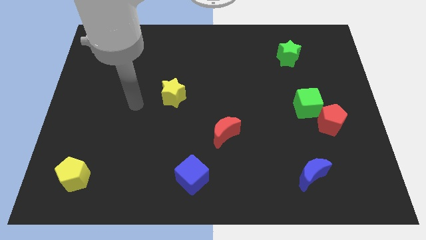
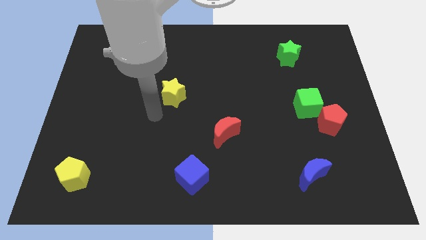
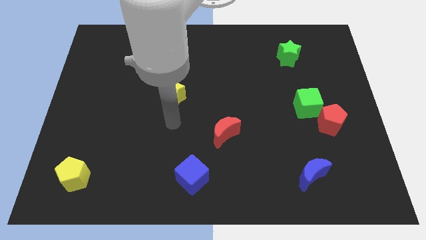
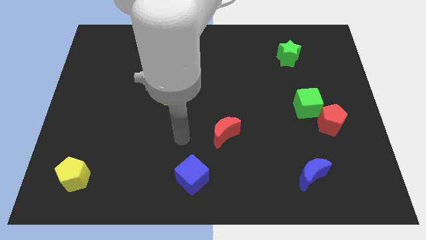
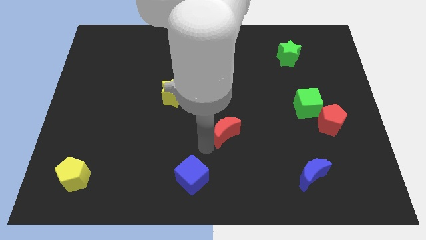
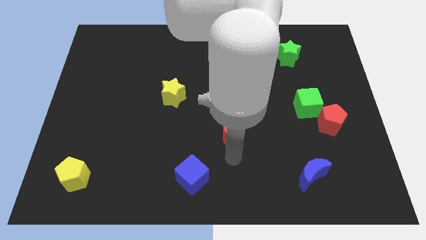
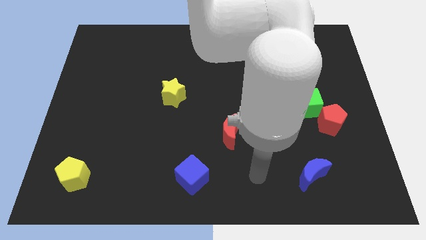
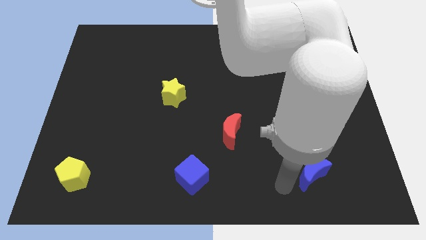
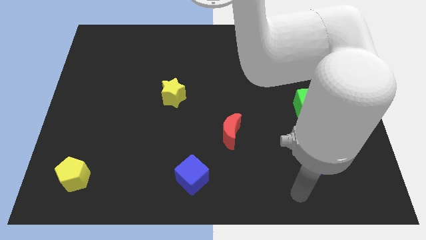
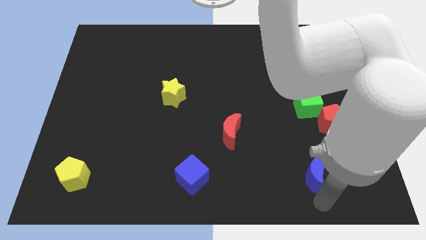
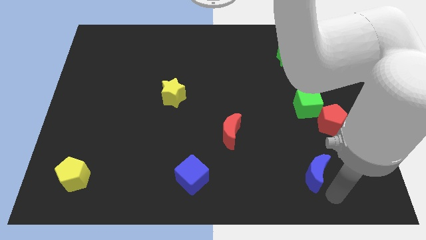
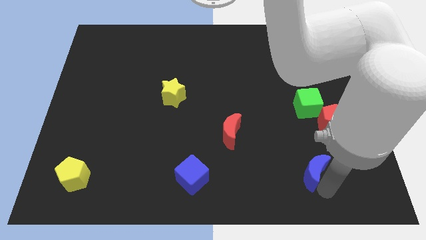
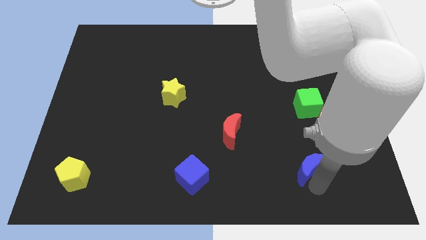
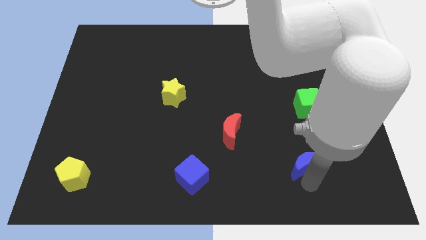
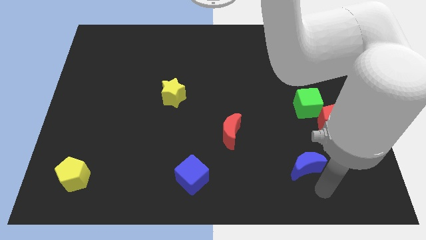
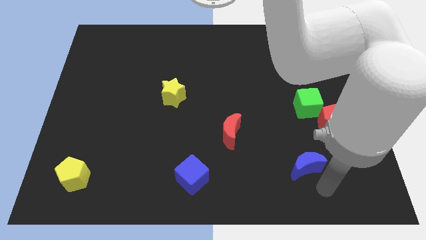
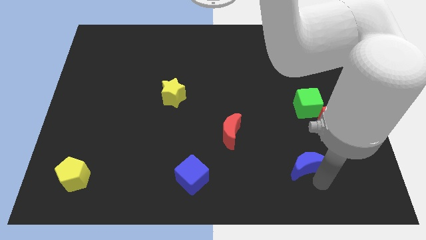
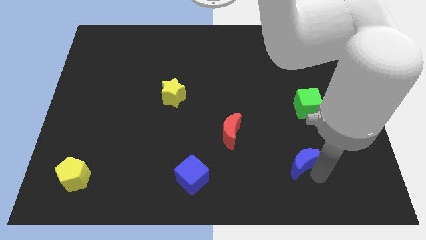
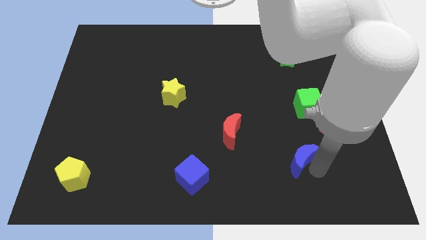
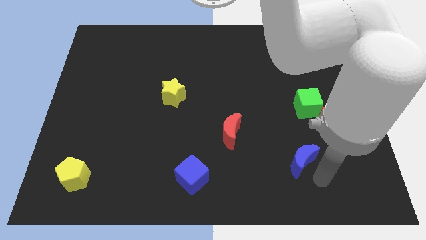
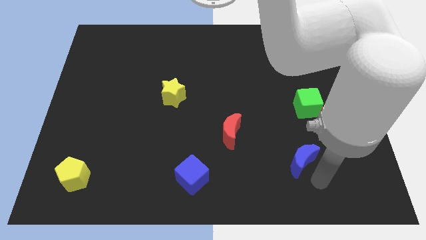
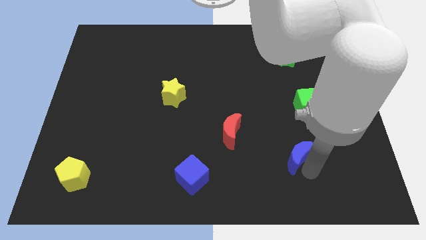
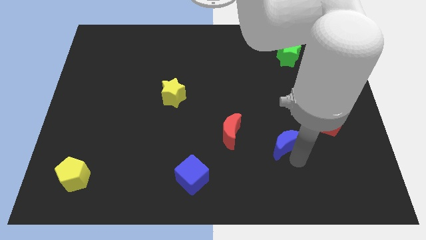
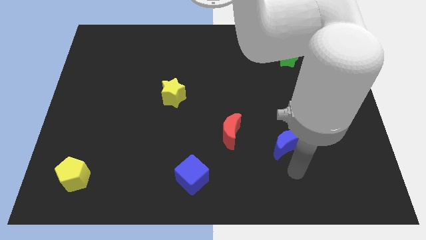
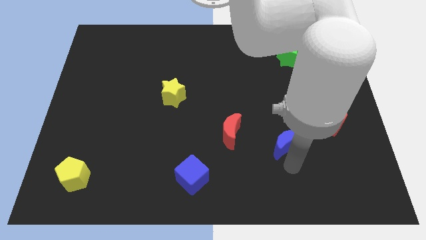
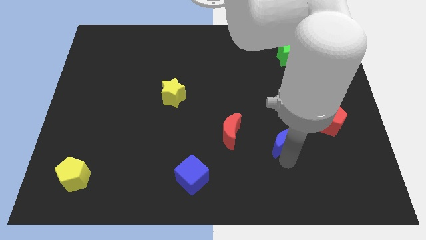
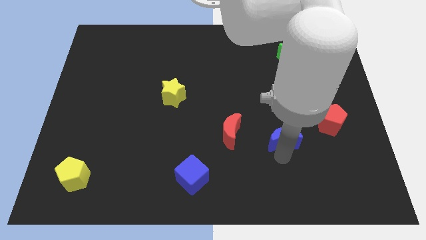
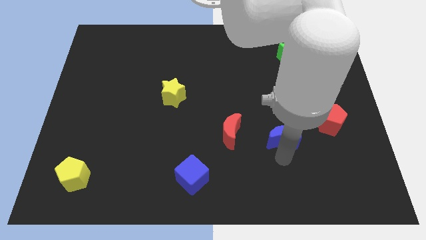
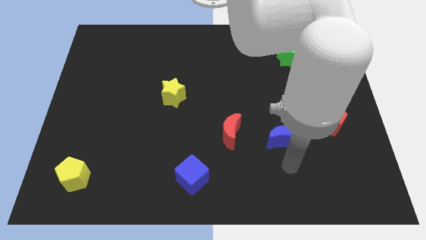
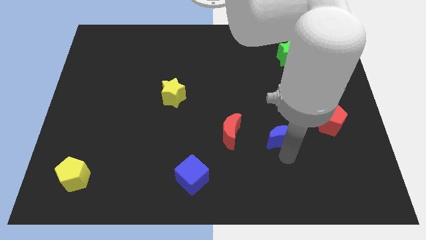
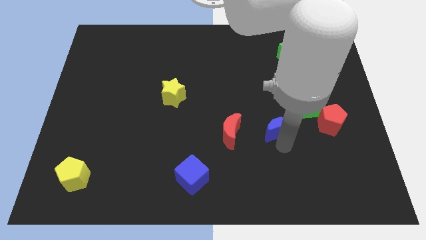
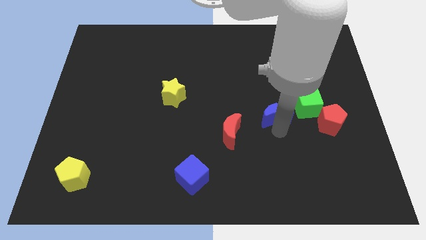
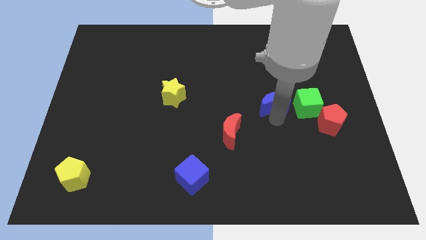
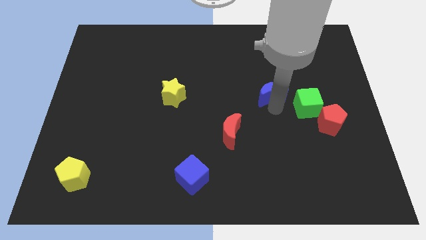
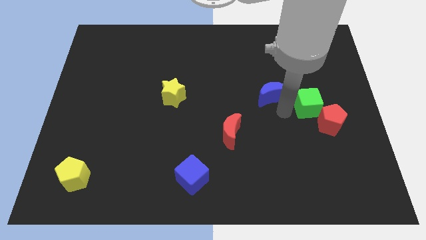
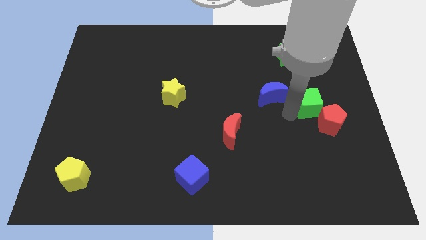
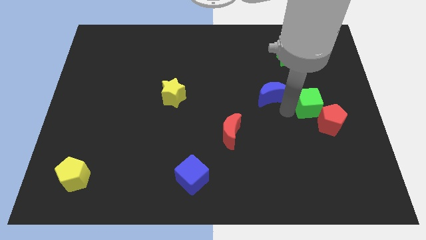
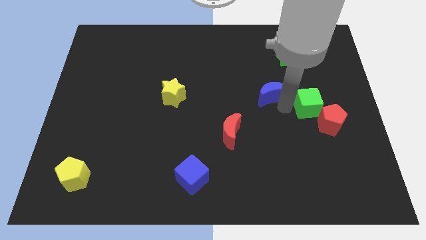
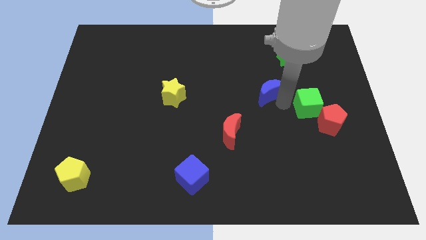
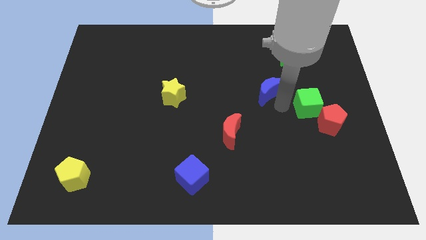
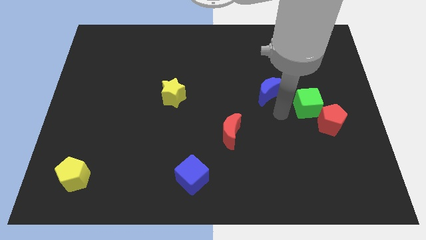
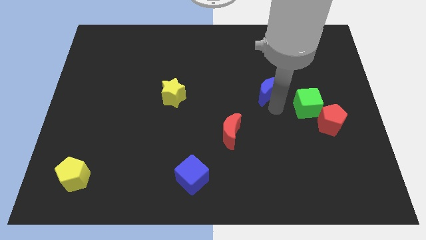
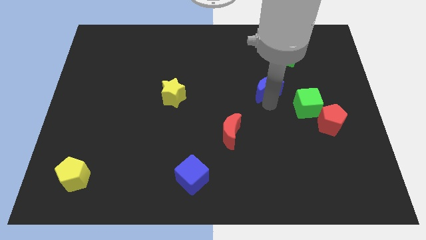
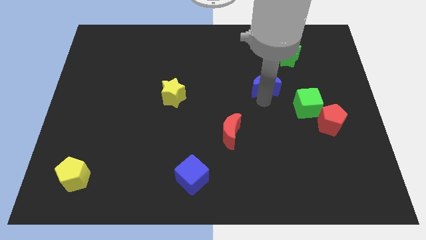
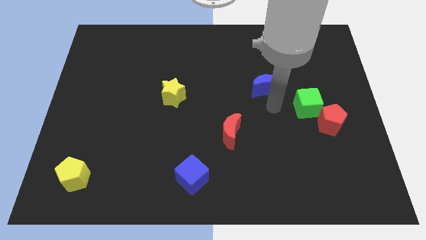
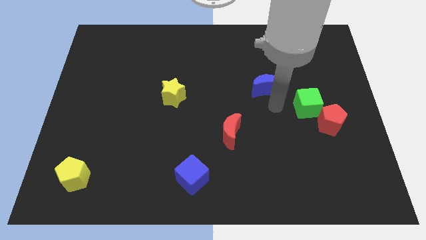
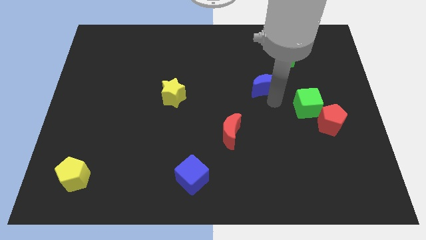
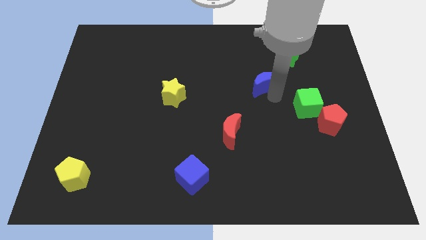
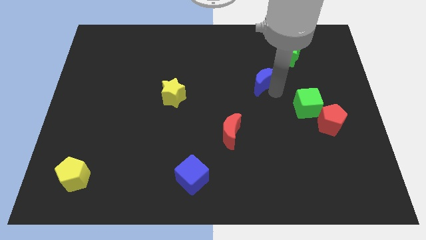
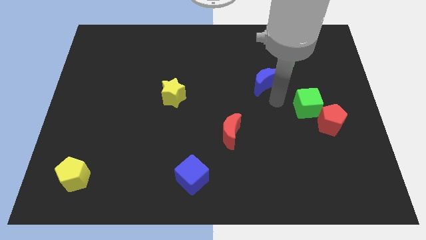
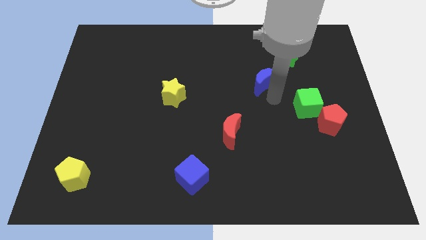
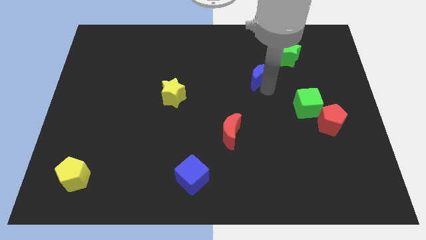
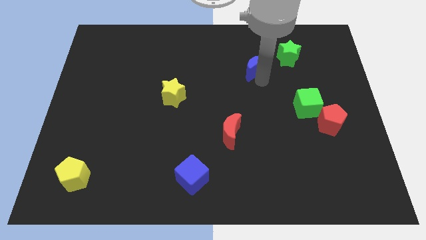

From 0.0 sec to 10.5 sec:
put the blue moon to the left of the green star

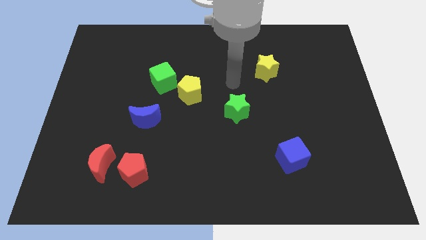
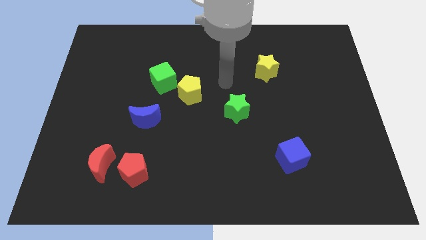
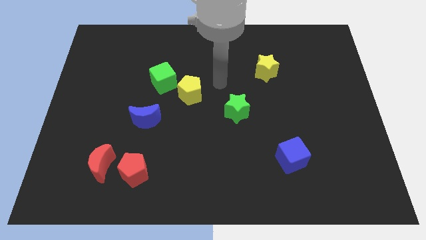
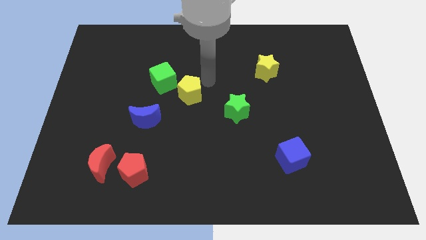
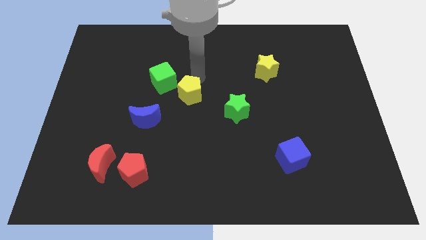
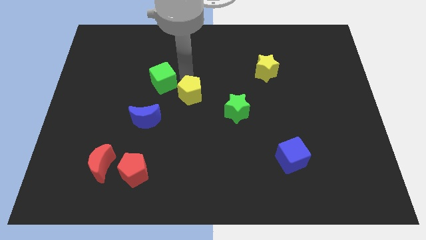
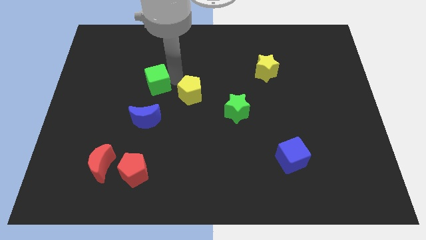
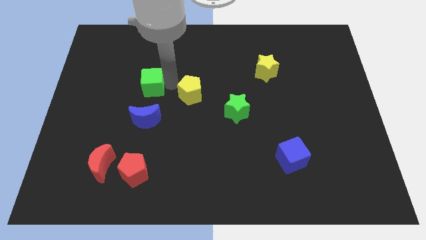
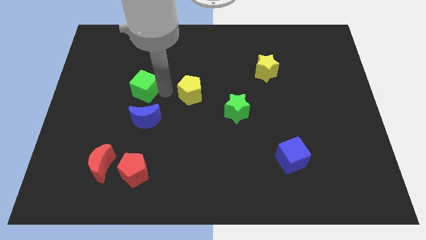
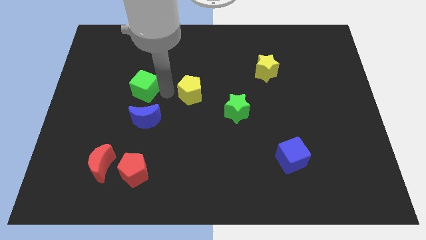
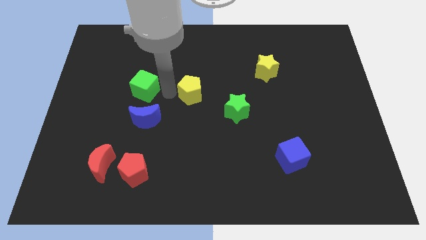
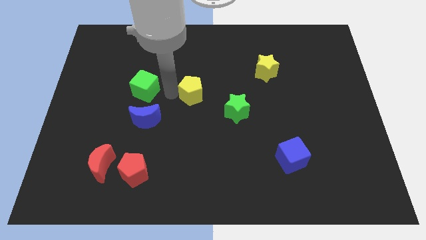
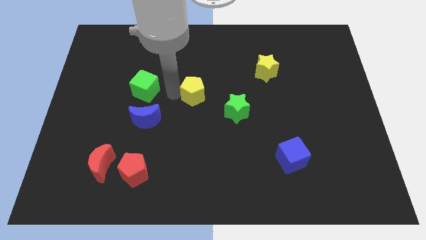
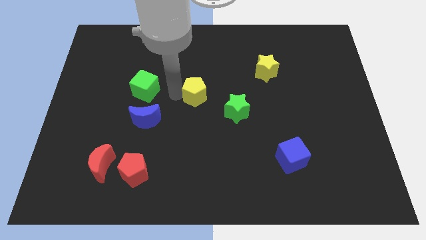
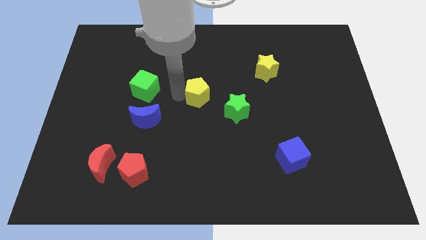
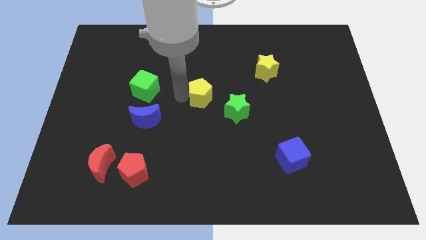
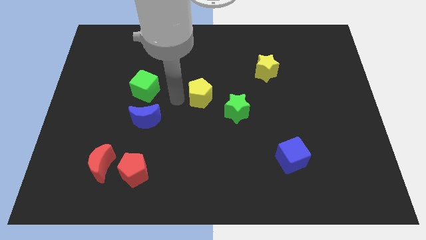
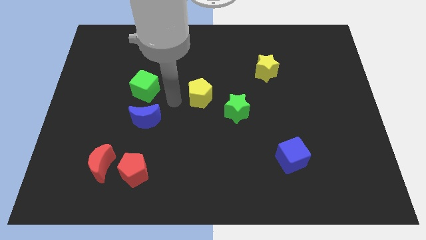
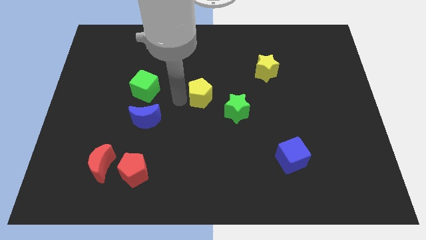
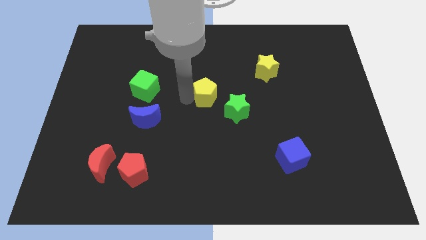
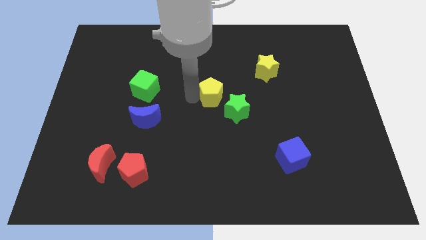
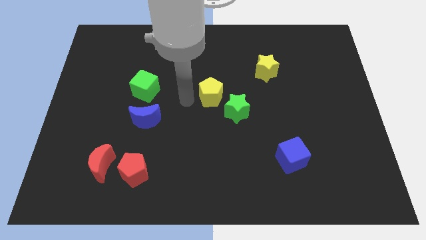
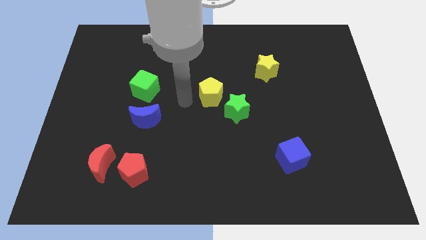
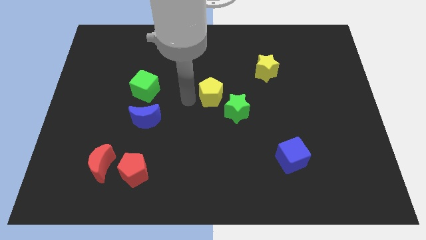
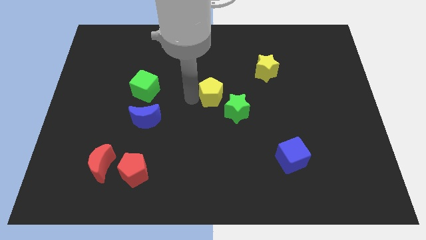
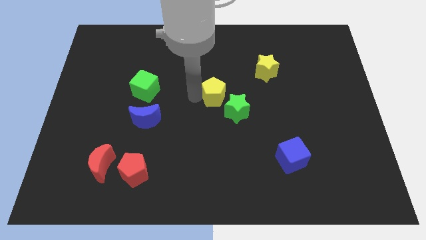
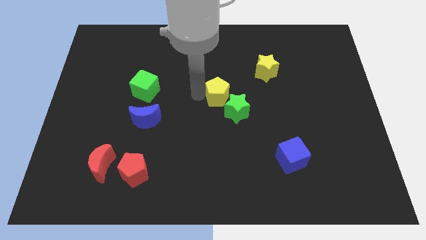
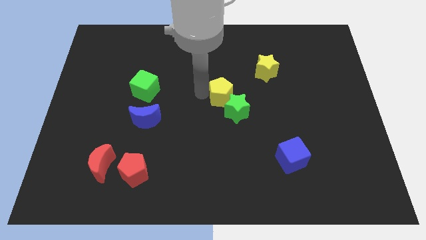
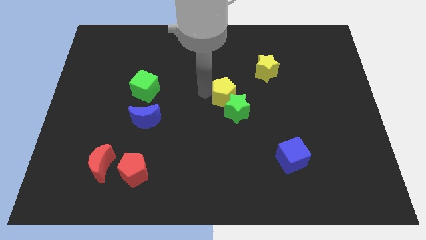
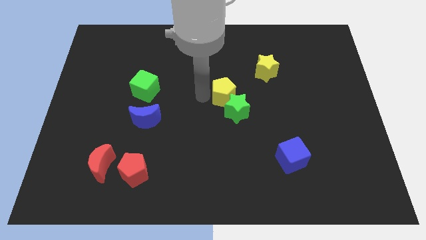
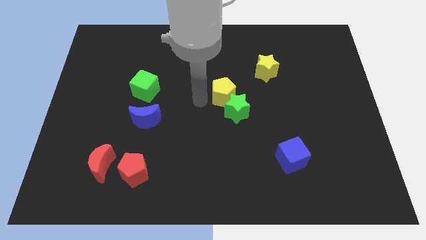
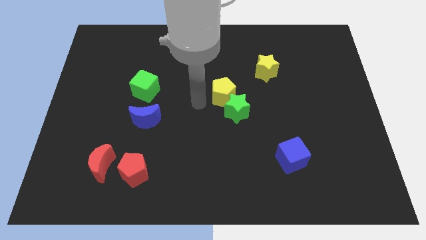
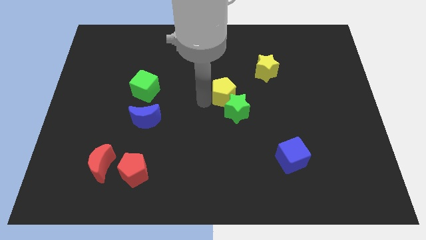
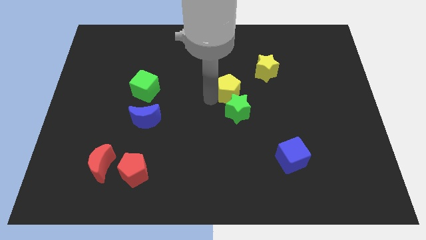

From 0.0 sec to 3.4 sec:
slide the yellow pentagon to the bottom left side of the yellow star
